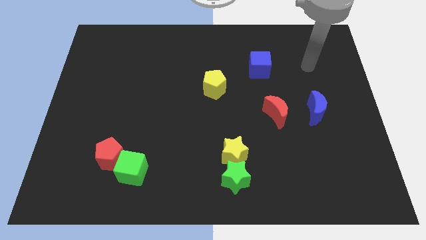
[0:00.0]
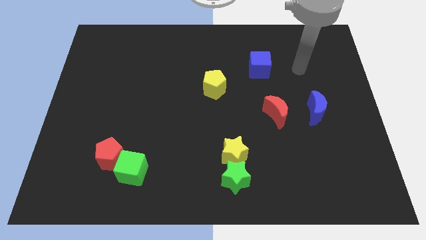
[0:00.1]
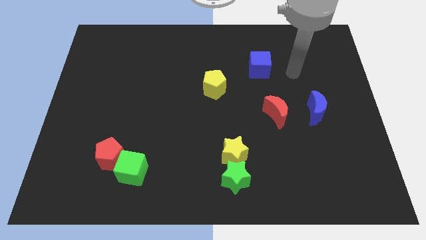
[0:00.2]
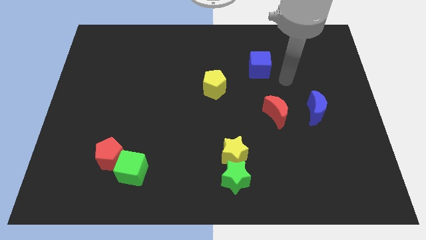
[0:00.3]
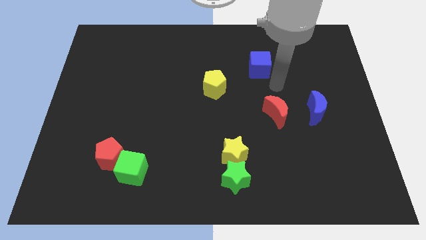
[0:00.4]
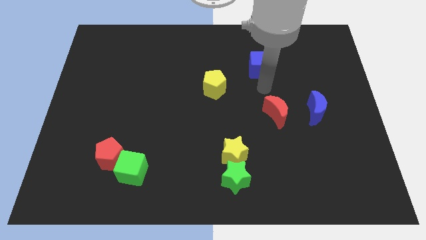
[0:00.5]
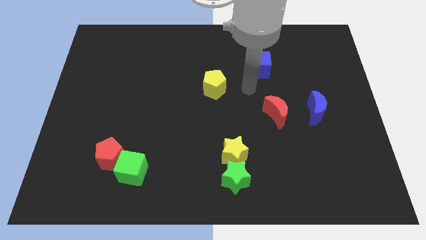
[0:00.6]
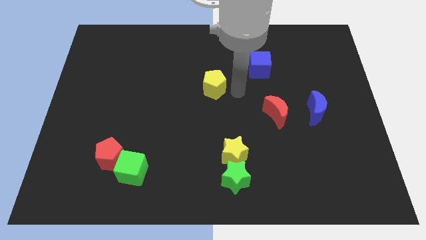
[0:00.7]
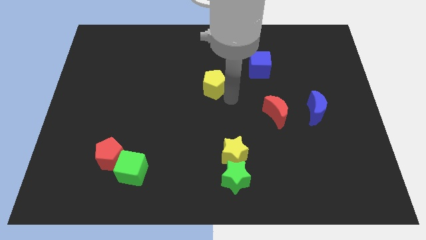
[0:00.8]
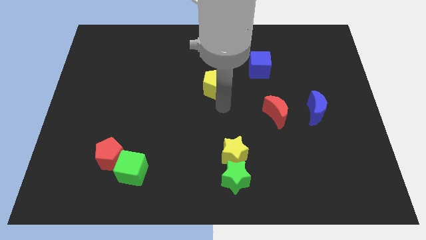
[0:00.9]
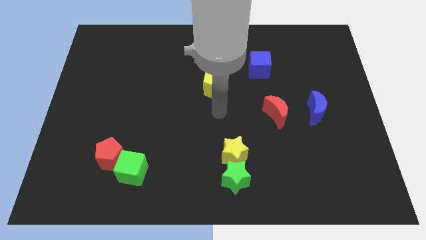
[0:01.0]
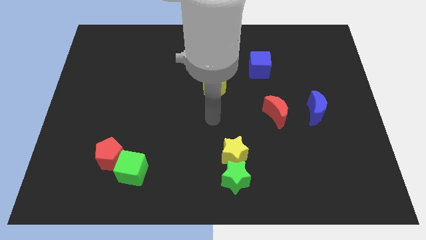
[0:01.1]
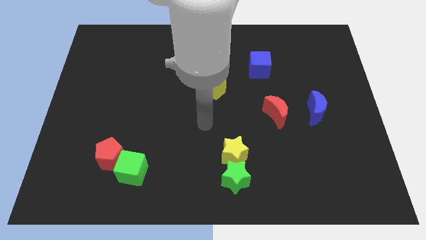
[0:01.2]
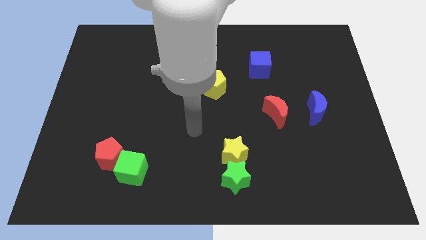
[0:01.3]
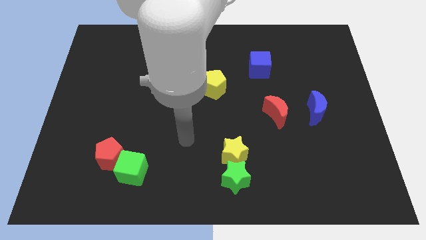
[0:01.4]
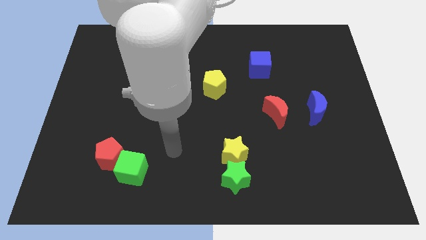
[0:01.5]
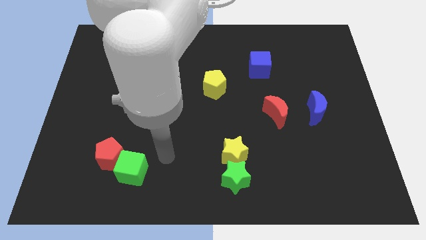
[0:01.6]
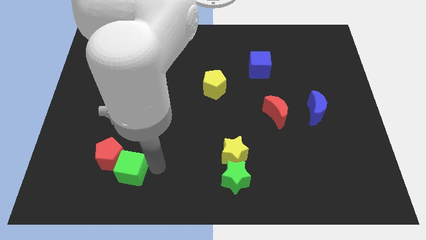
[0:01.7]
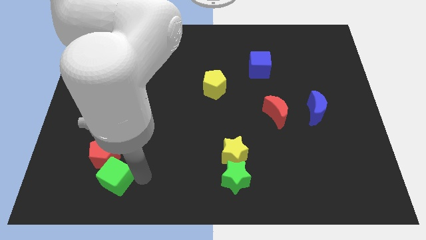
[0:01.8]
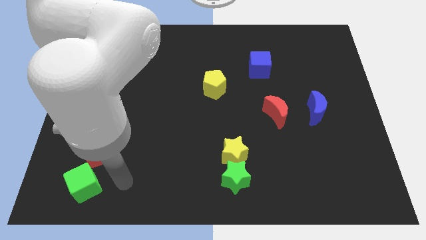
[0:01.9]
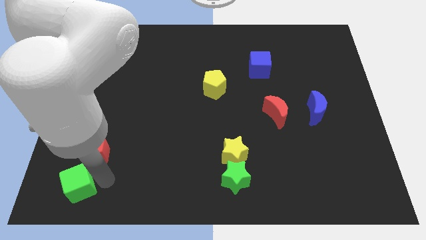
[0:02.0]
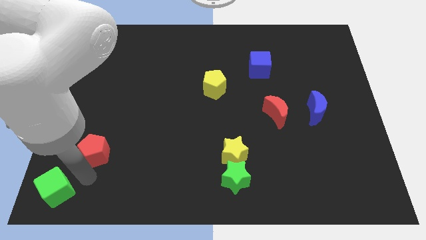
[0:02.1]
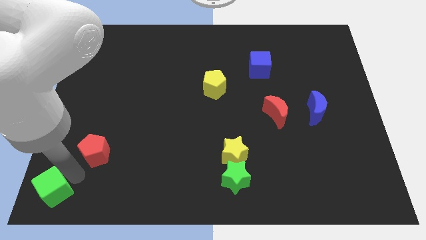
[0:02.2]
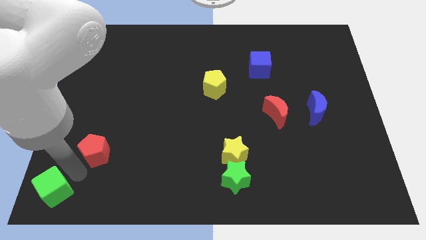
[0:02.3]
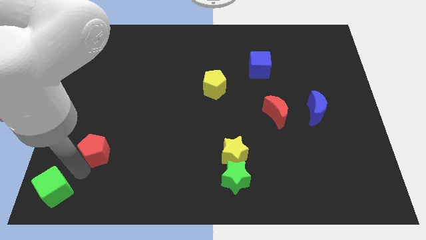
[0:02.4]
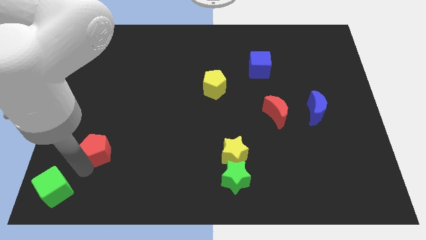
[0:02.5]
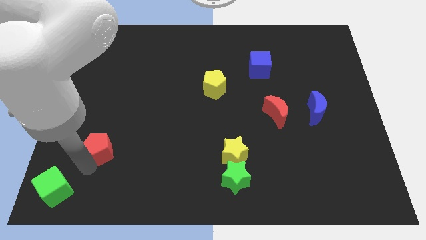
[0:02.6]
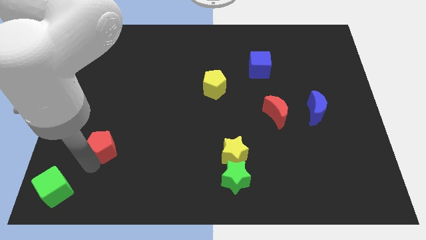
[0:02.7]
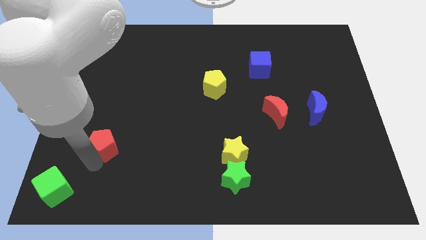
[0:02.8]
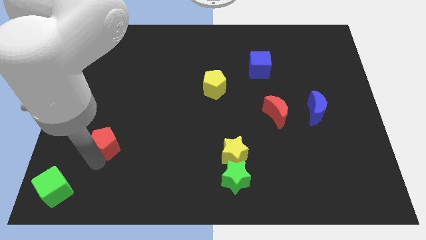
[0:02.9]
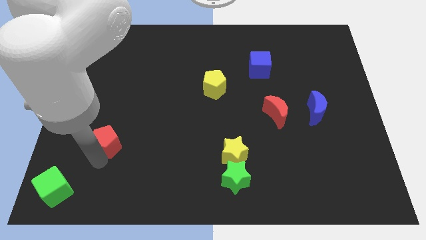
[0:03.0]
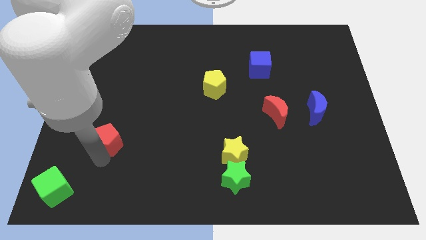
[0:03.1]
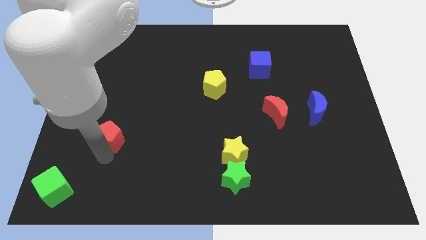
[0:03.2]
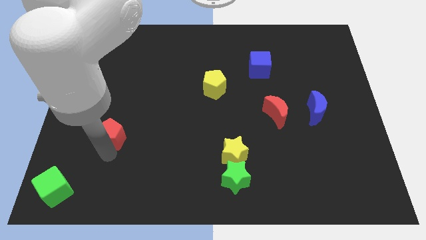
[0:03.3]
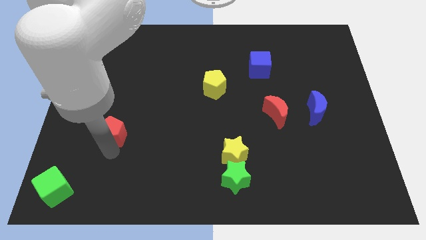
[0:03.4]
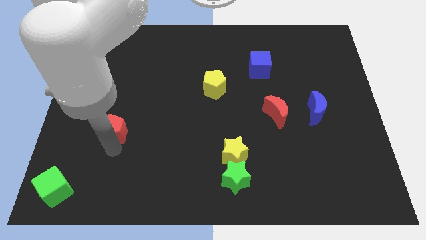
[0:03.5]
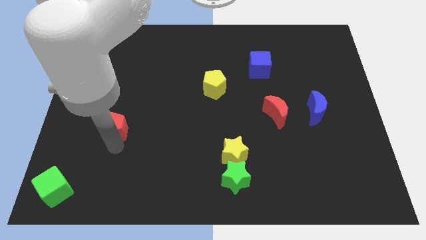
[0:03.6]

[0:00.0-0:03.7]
slide the red pentagon a little bit up

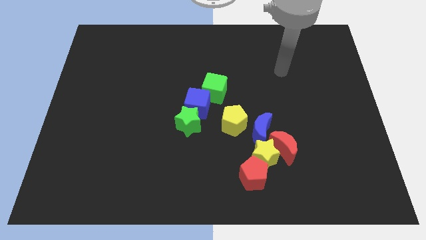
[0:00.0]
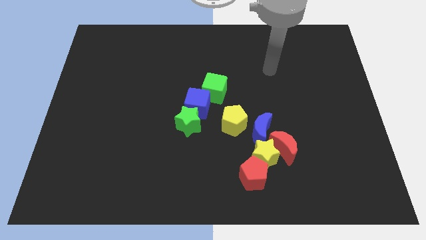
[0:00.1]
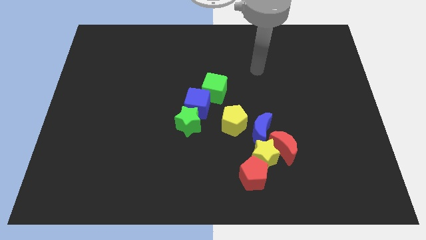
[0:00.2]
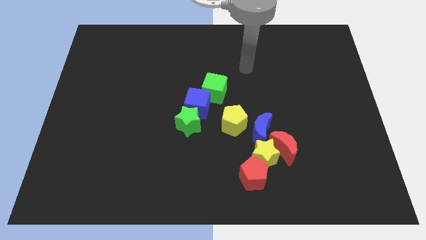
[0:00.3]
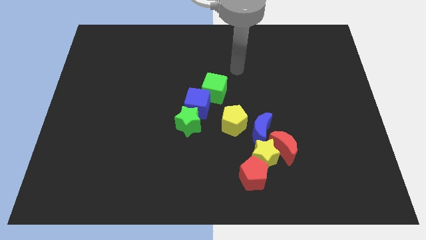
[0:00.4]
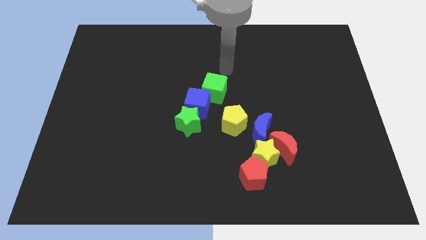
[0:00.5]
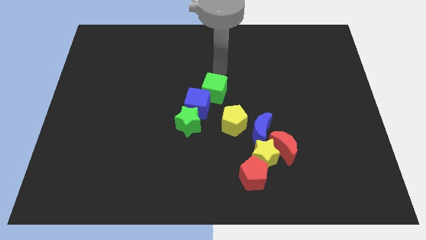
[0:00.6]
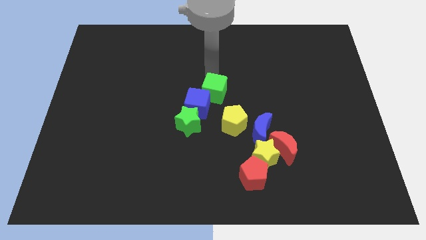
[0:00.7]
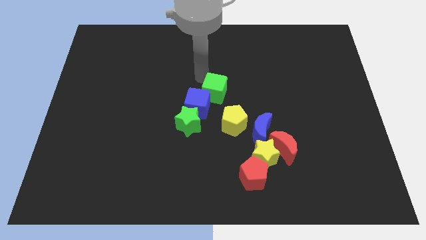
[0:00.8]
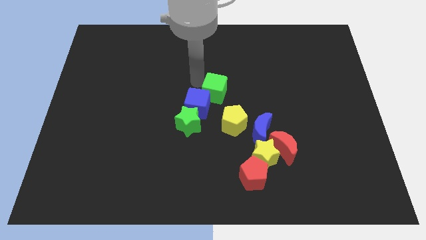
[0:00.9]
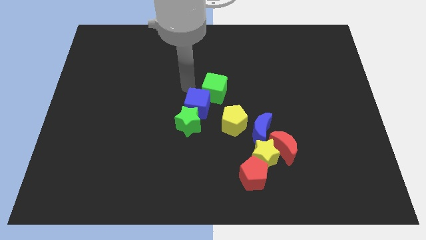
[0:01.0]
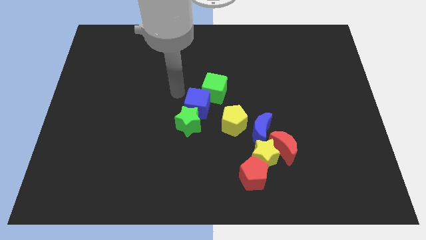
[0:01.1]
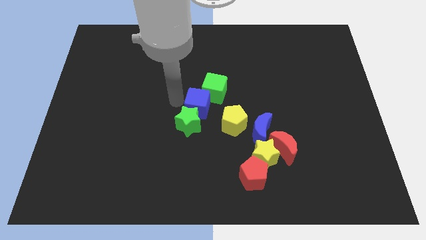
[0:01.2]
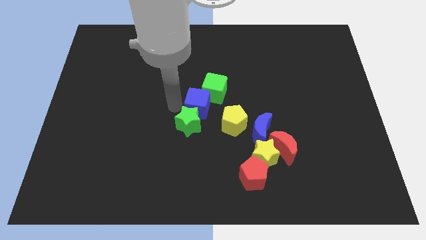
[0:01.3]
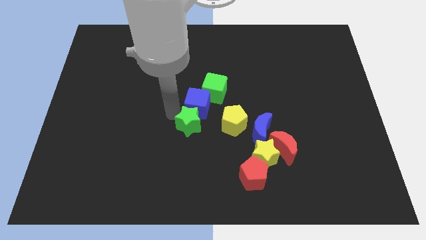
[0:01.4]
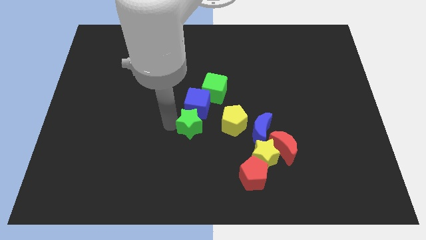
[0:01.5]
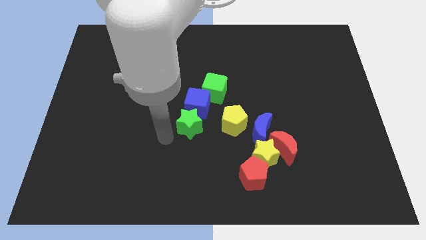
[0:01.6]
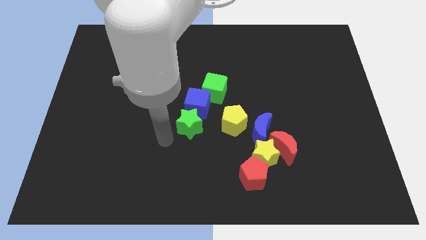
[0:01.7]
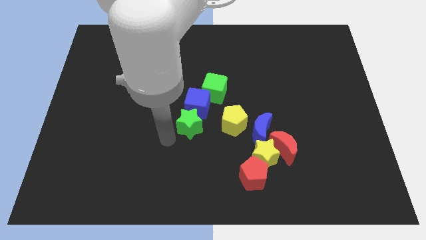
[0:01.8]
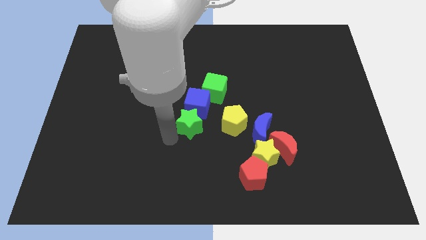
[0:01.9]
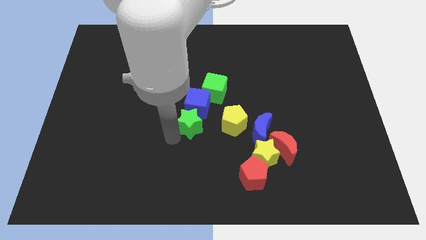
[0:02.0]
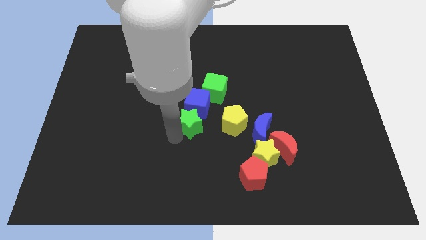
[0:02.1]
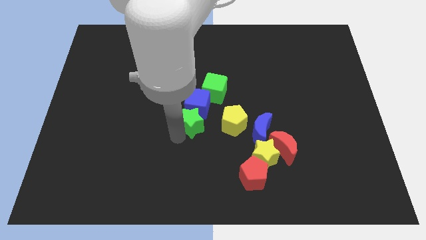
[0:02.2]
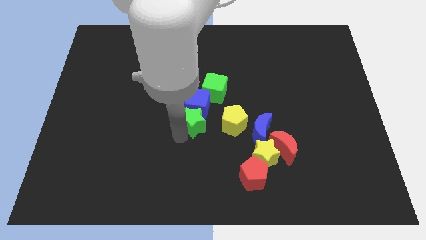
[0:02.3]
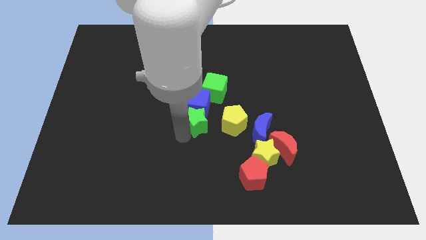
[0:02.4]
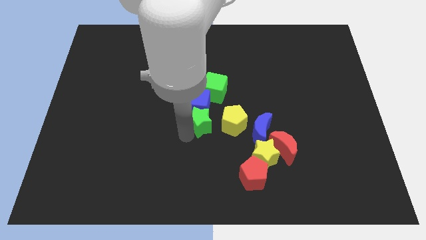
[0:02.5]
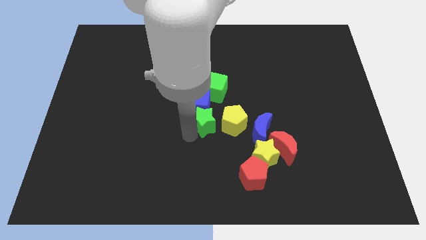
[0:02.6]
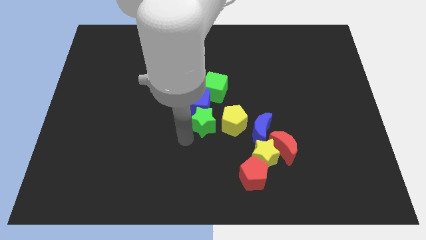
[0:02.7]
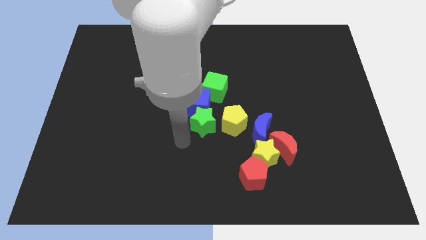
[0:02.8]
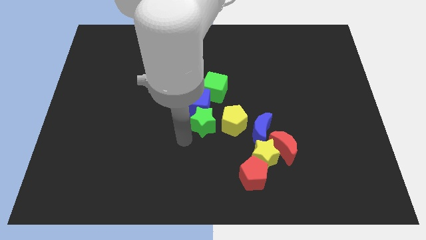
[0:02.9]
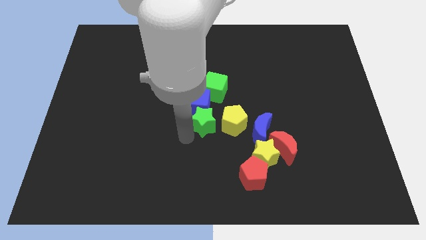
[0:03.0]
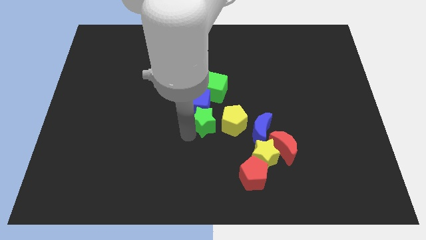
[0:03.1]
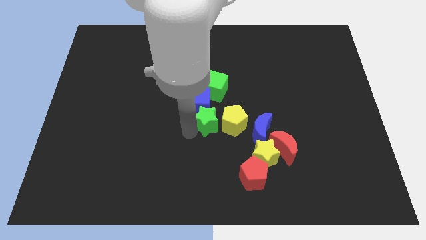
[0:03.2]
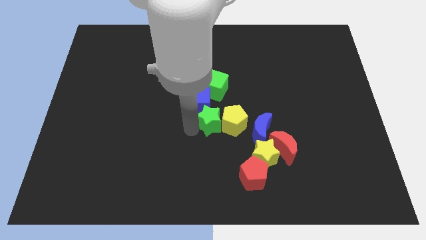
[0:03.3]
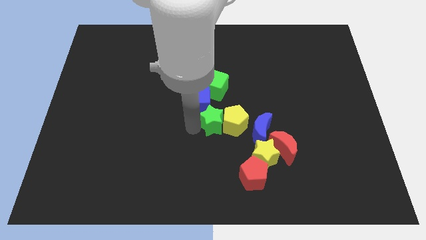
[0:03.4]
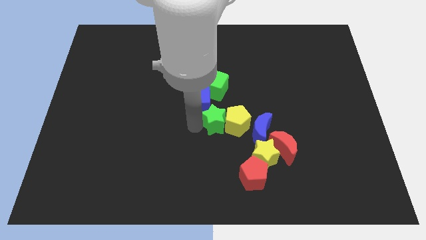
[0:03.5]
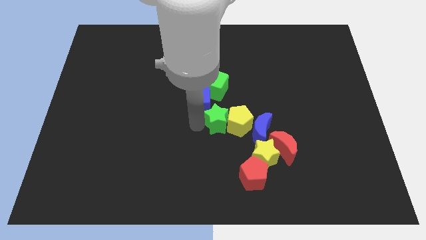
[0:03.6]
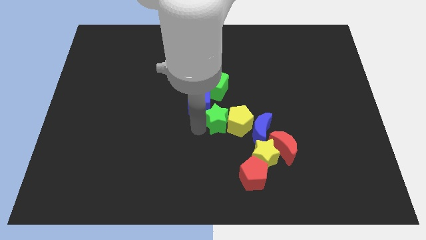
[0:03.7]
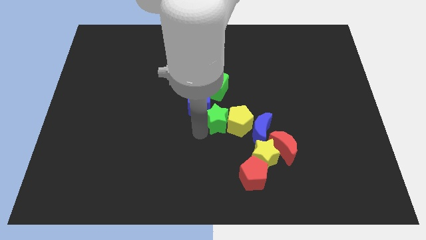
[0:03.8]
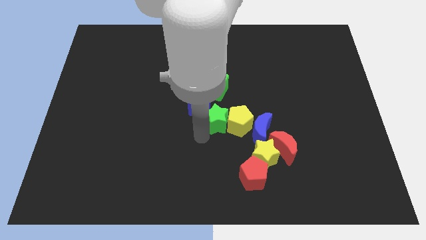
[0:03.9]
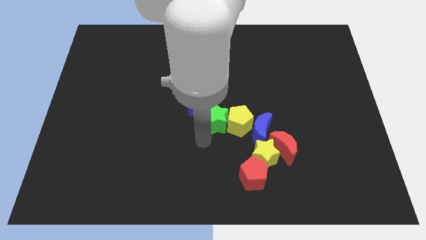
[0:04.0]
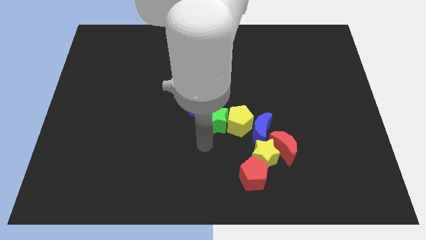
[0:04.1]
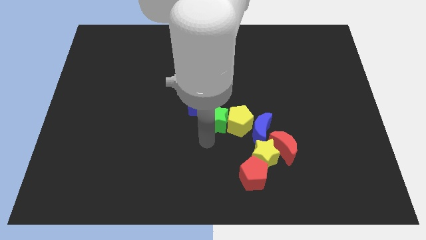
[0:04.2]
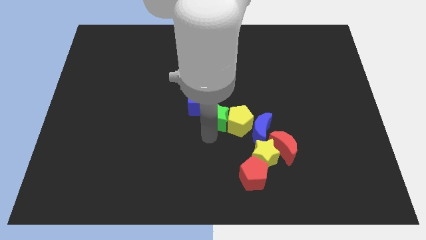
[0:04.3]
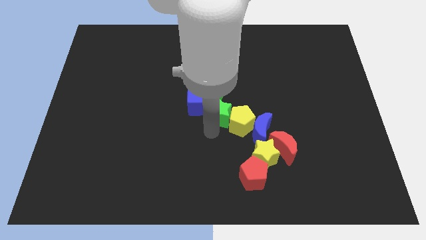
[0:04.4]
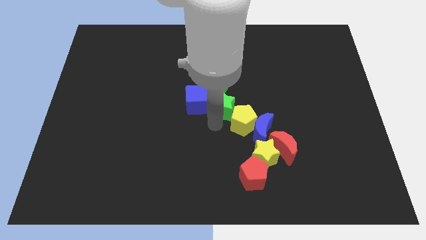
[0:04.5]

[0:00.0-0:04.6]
slide the green star up and then right somewhat
